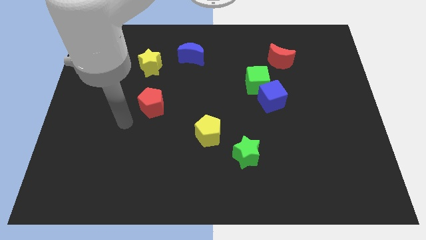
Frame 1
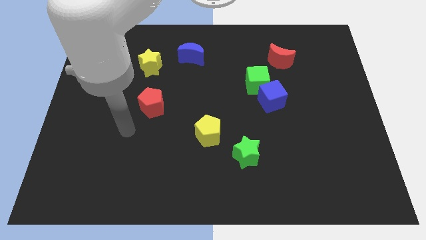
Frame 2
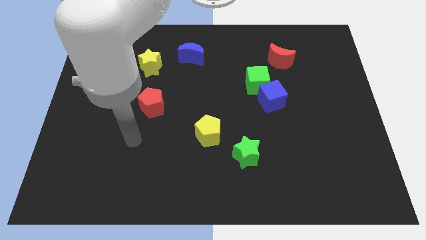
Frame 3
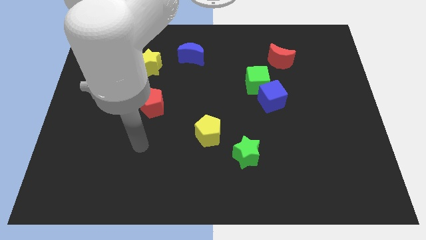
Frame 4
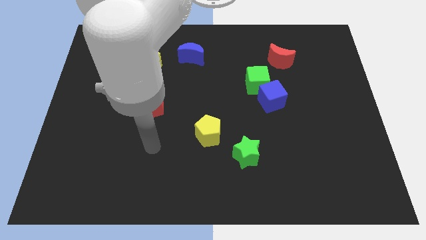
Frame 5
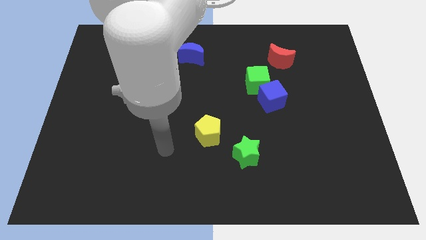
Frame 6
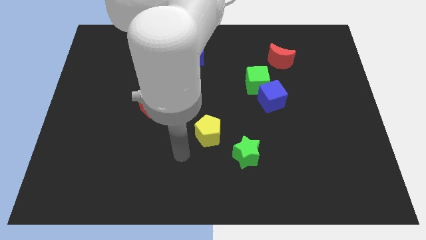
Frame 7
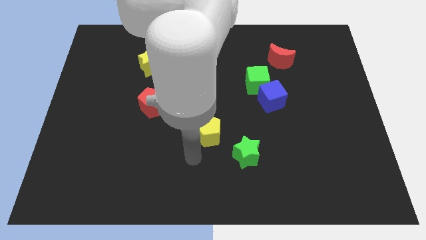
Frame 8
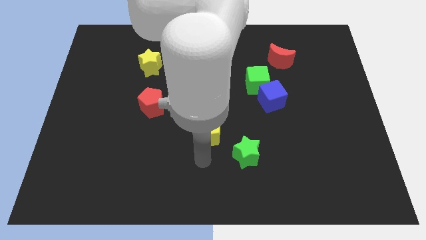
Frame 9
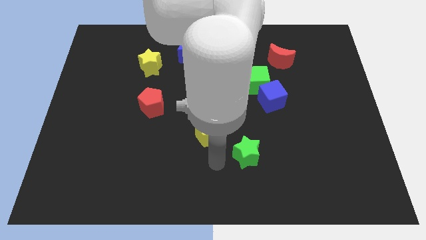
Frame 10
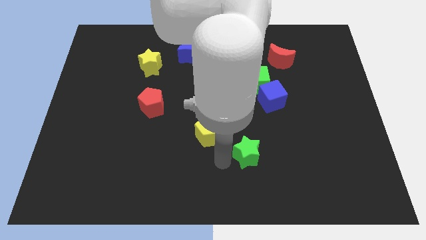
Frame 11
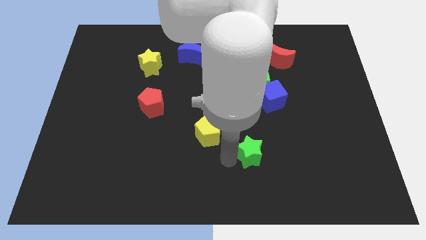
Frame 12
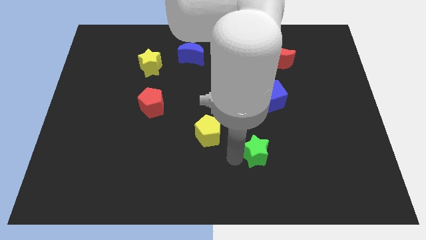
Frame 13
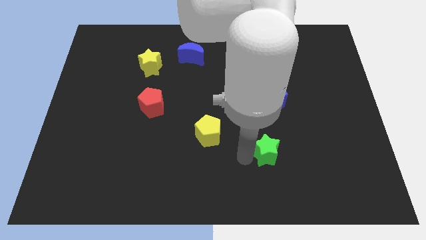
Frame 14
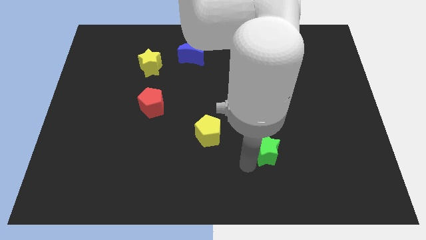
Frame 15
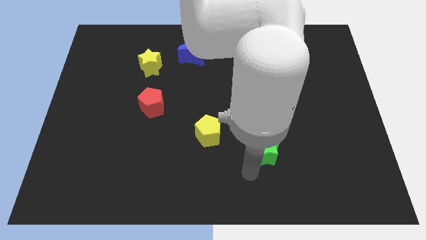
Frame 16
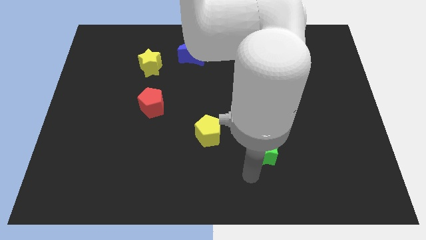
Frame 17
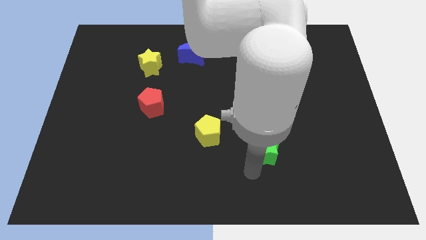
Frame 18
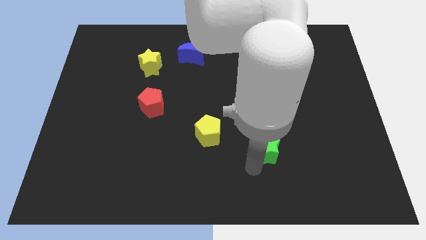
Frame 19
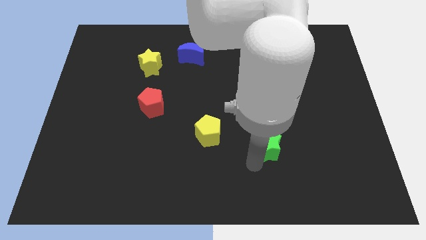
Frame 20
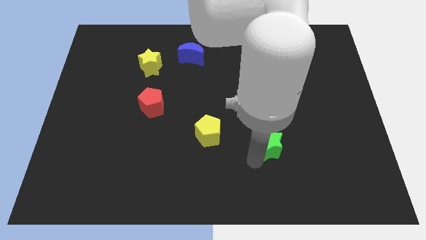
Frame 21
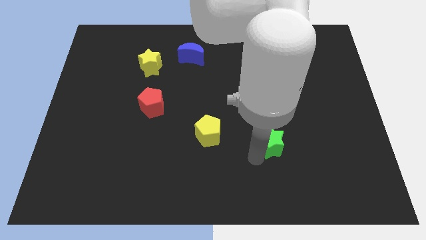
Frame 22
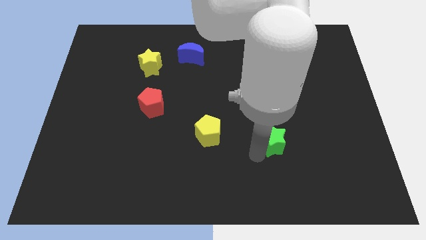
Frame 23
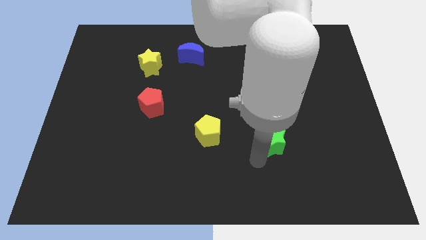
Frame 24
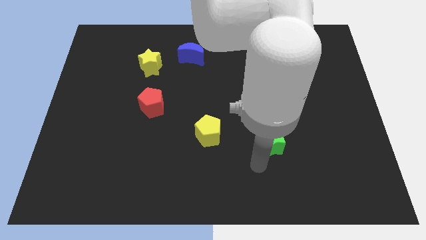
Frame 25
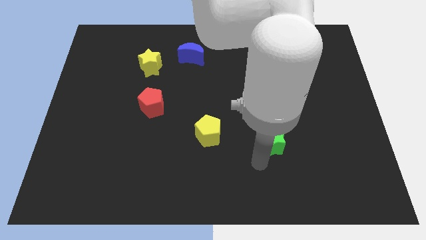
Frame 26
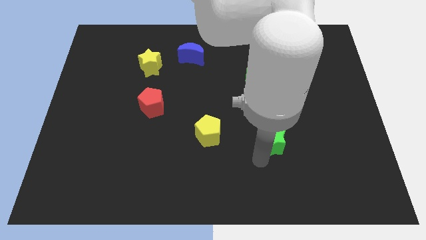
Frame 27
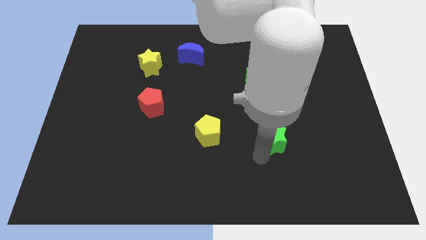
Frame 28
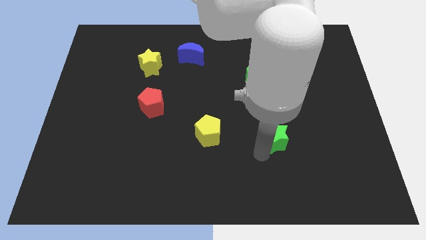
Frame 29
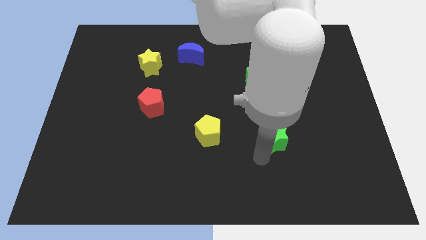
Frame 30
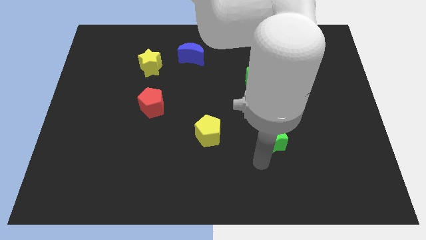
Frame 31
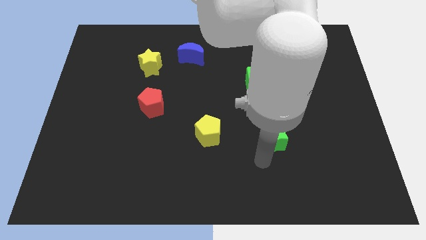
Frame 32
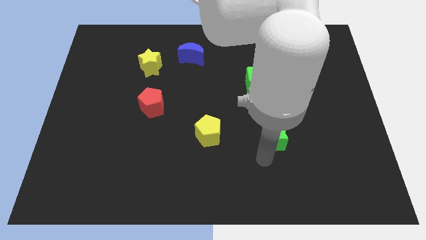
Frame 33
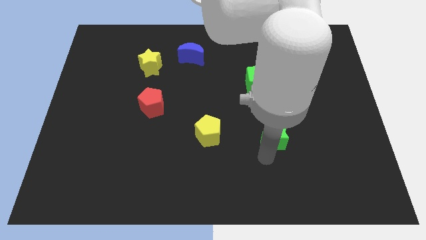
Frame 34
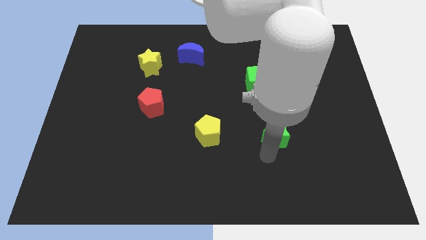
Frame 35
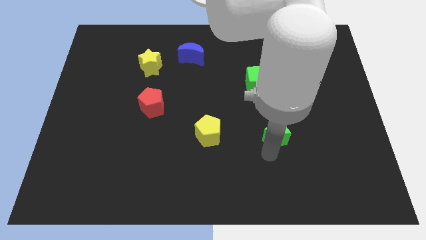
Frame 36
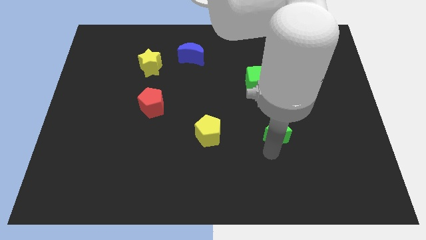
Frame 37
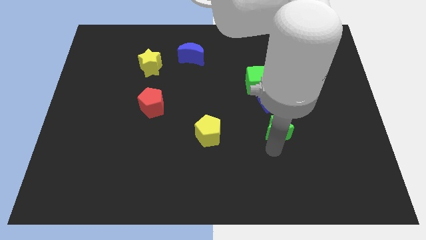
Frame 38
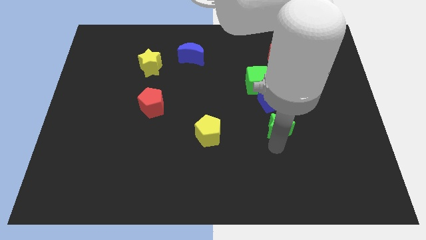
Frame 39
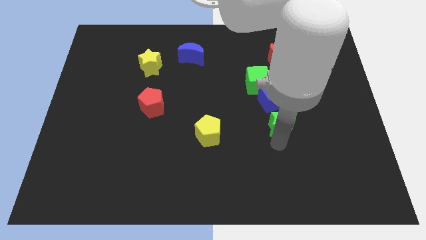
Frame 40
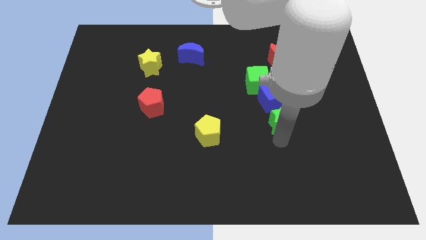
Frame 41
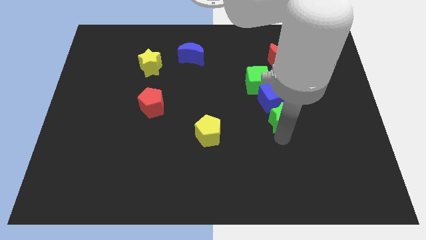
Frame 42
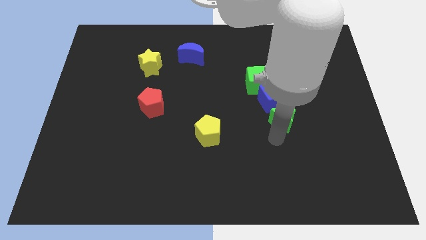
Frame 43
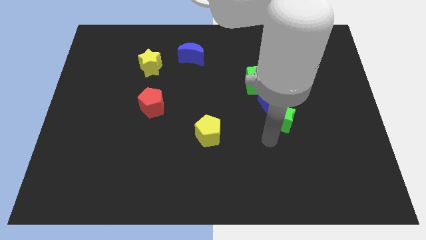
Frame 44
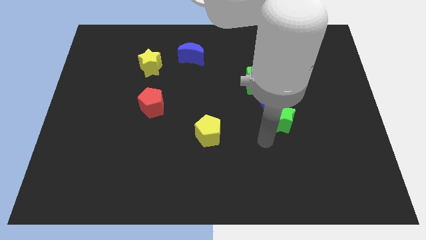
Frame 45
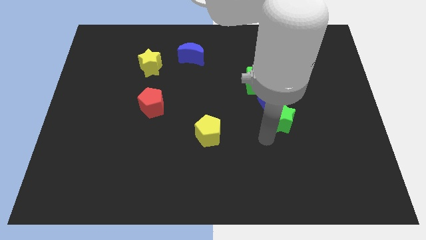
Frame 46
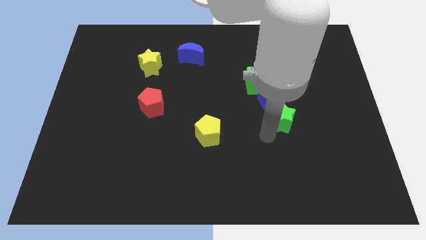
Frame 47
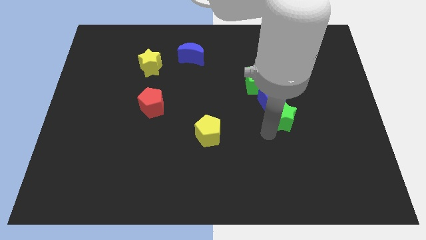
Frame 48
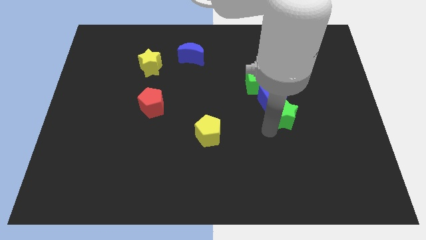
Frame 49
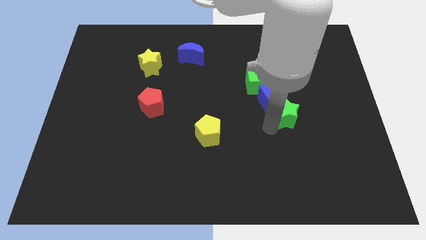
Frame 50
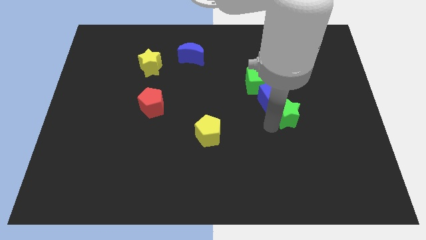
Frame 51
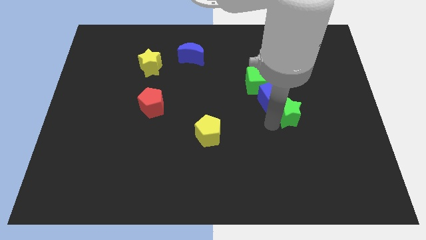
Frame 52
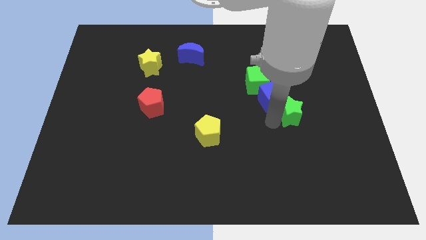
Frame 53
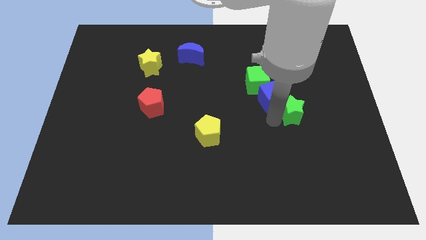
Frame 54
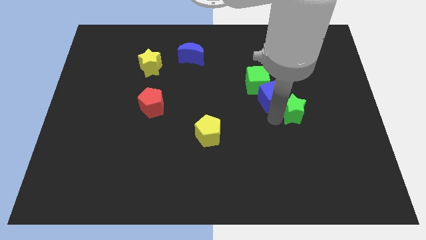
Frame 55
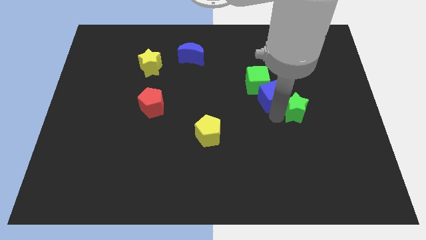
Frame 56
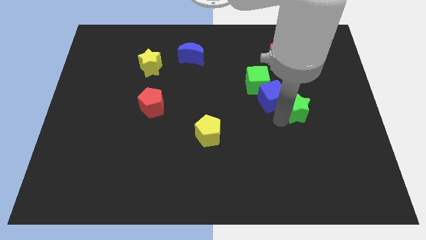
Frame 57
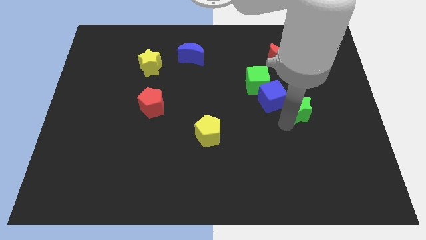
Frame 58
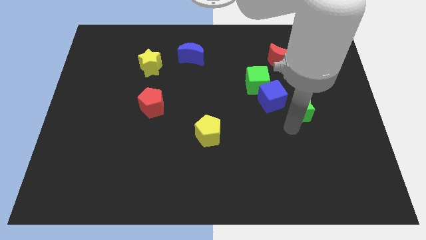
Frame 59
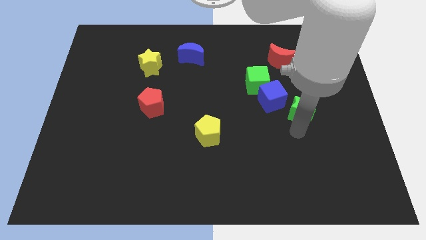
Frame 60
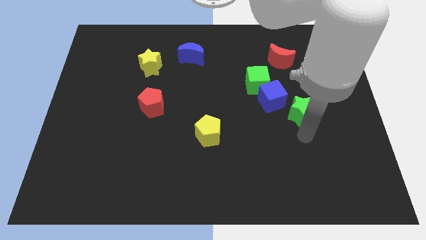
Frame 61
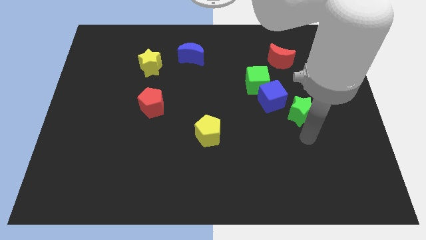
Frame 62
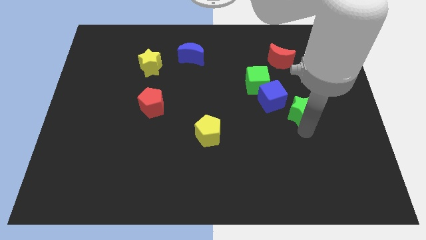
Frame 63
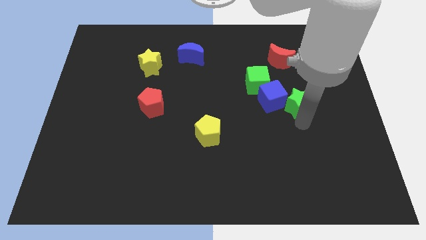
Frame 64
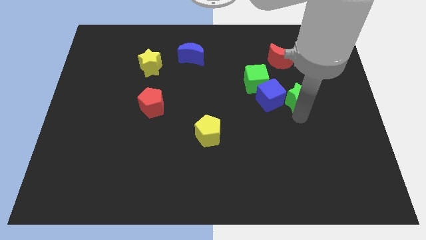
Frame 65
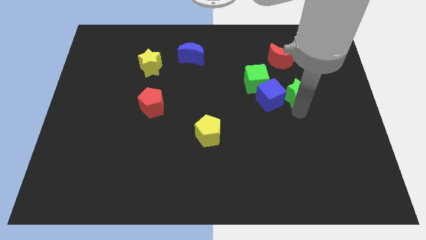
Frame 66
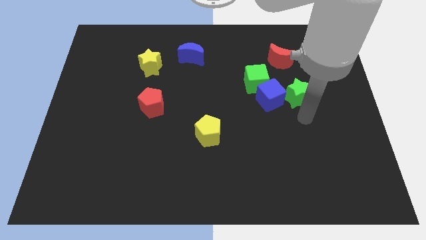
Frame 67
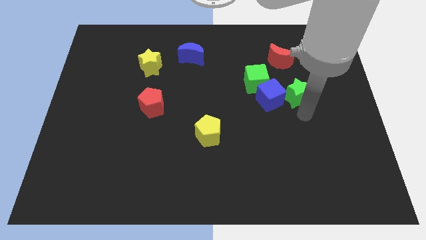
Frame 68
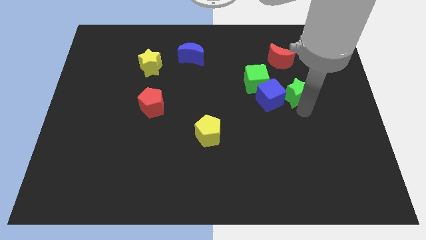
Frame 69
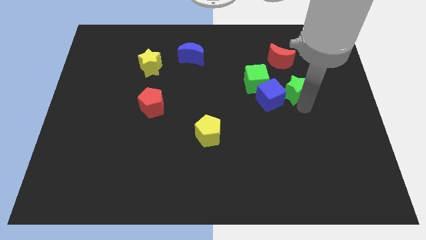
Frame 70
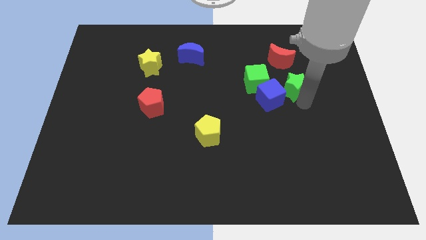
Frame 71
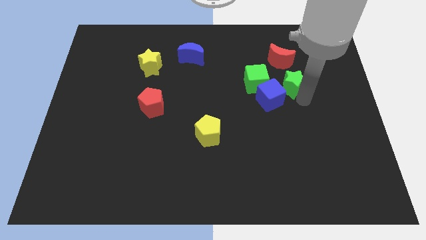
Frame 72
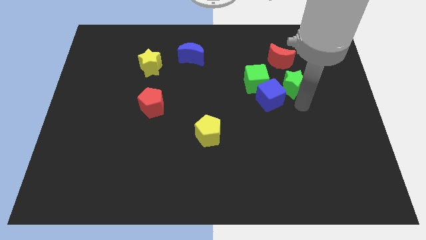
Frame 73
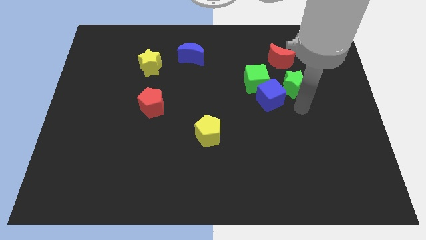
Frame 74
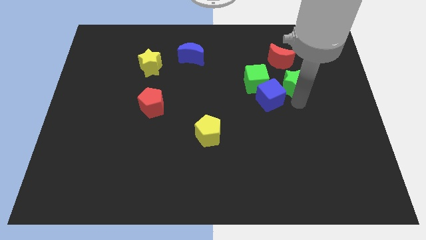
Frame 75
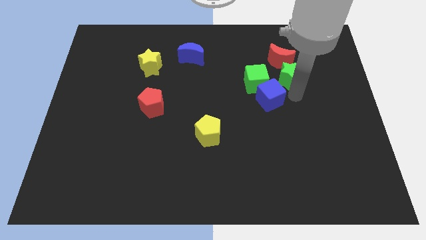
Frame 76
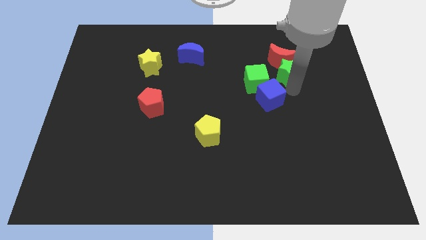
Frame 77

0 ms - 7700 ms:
put the green star to the red moon
